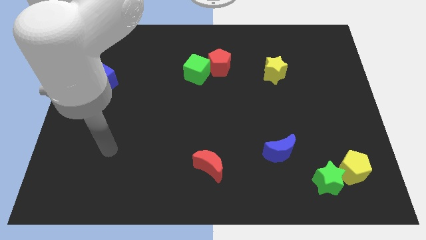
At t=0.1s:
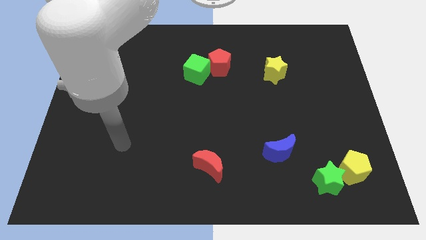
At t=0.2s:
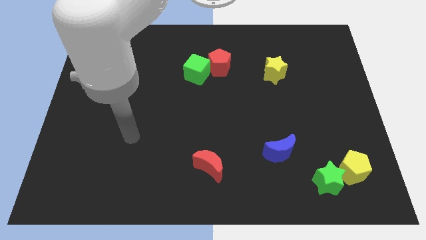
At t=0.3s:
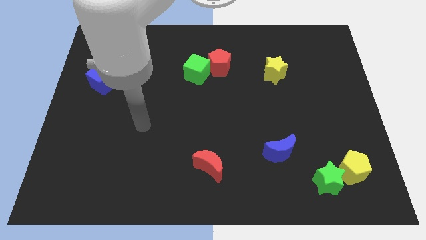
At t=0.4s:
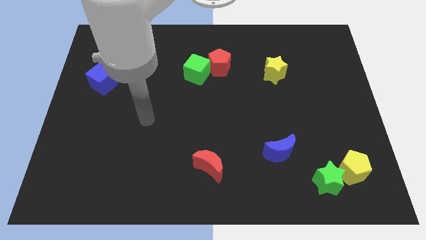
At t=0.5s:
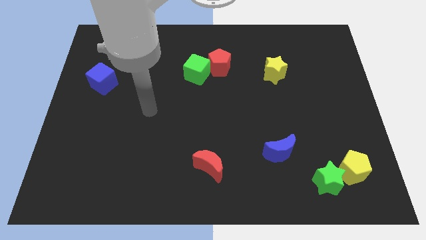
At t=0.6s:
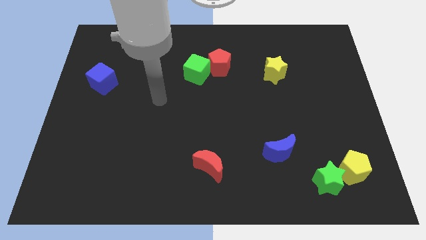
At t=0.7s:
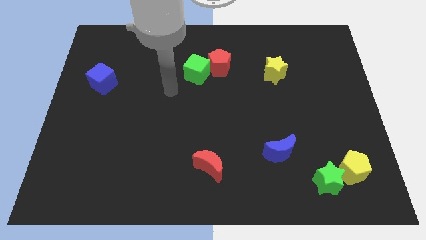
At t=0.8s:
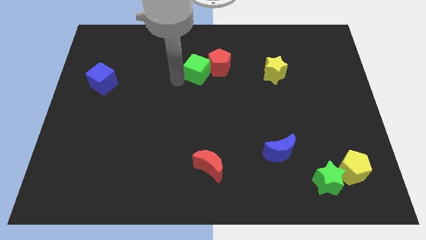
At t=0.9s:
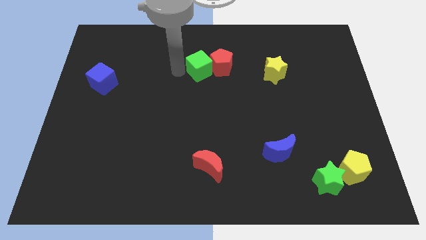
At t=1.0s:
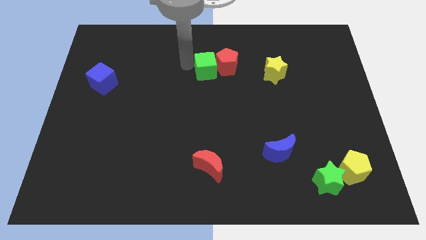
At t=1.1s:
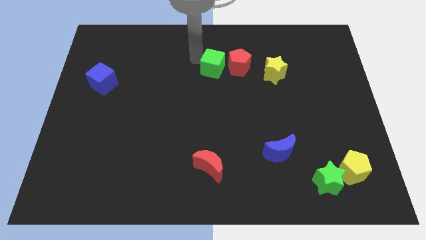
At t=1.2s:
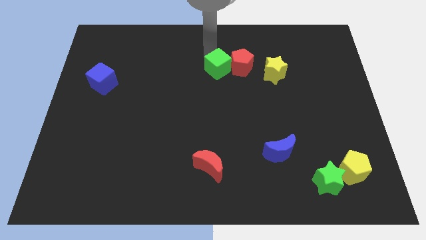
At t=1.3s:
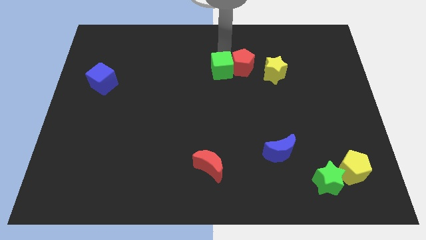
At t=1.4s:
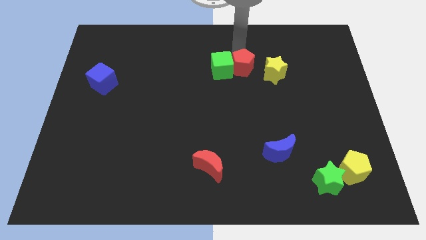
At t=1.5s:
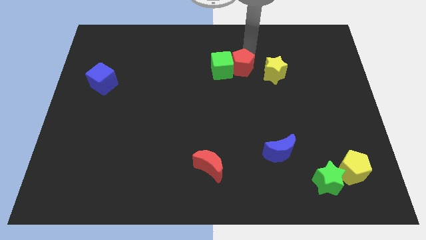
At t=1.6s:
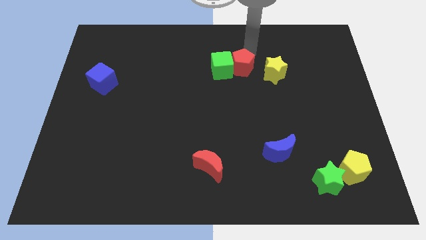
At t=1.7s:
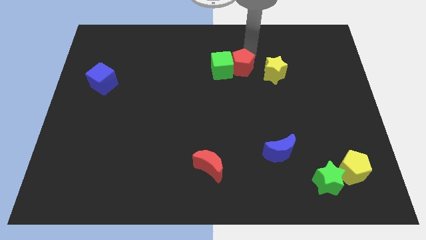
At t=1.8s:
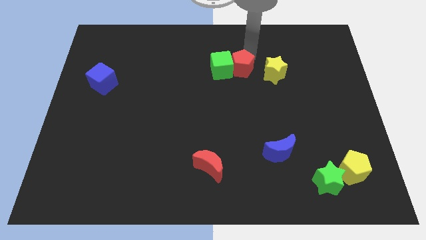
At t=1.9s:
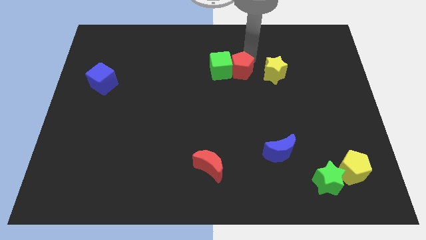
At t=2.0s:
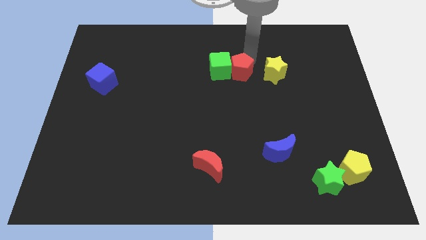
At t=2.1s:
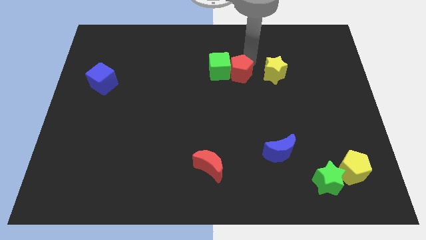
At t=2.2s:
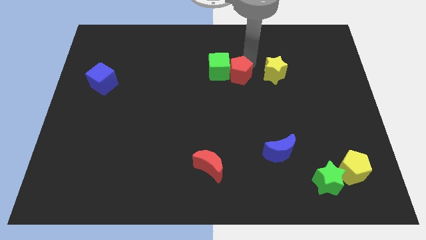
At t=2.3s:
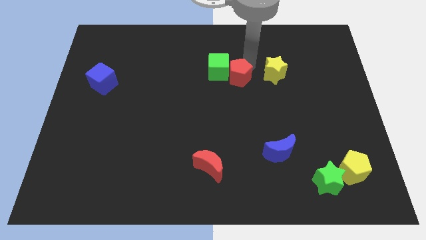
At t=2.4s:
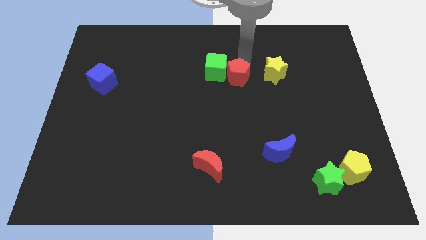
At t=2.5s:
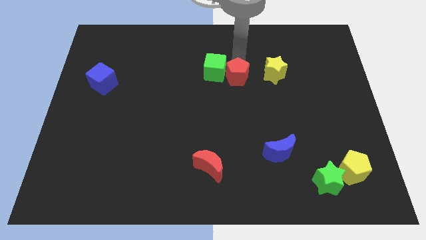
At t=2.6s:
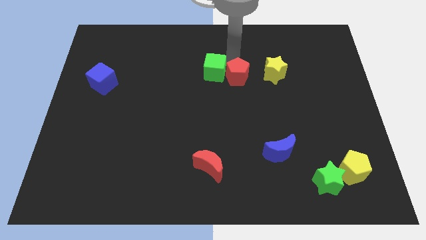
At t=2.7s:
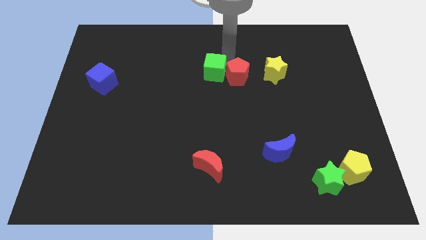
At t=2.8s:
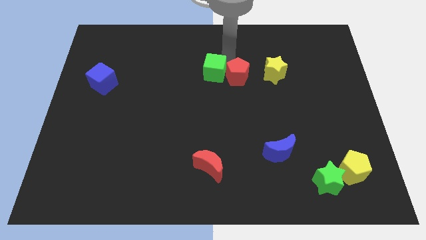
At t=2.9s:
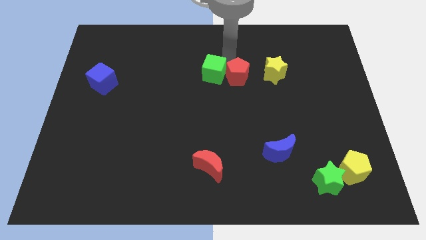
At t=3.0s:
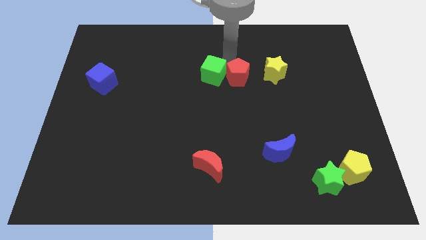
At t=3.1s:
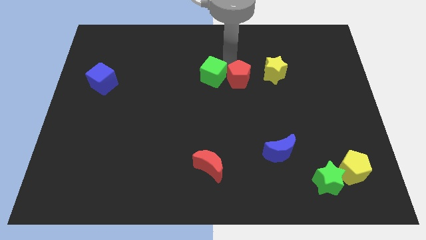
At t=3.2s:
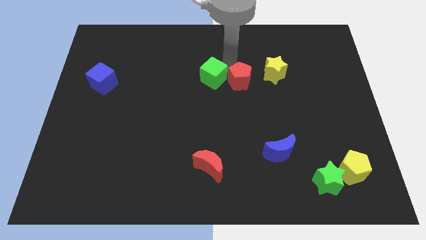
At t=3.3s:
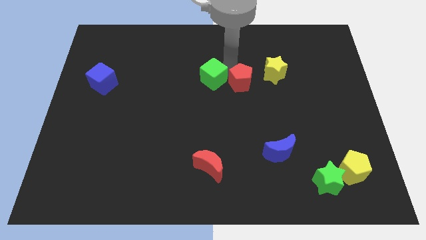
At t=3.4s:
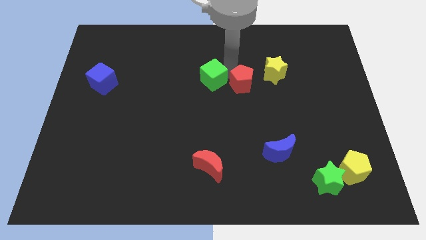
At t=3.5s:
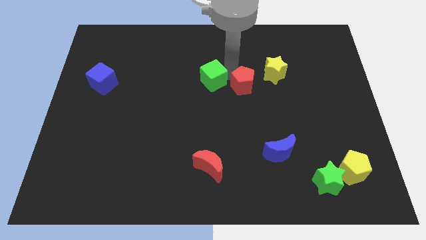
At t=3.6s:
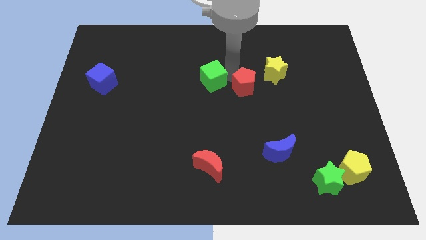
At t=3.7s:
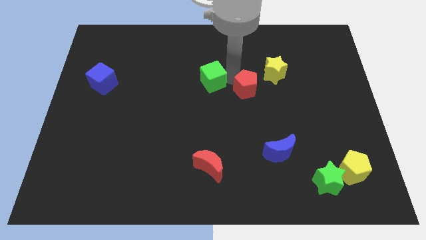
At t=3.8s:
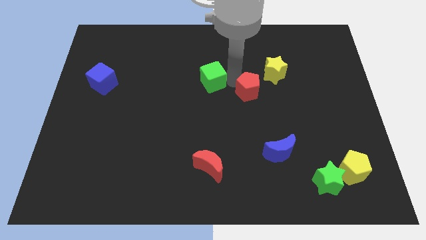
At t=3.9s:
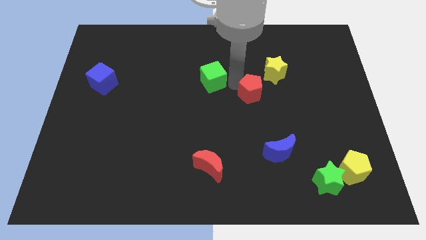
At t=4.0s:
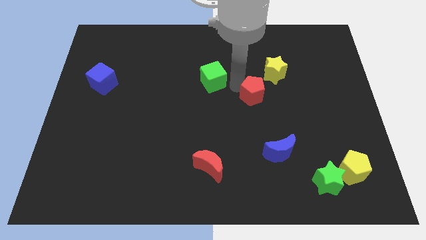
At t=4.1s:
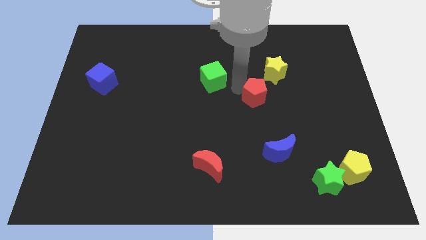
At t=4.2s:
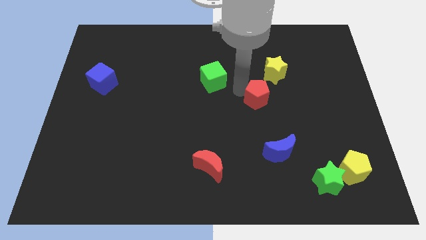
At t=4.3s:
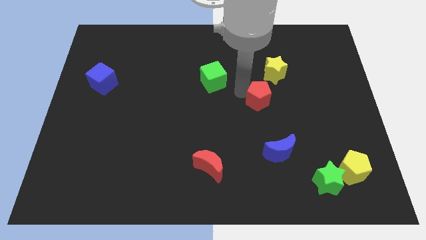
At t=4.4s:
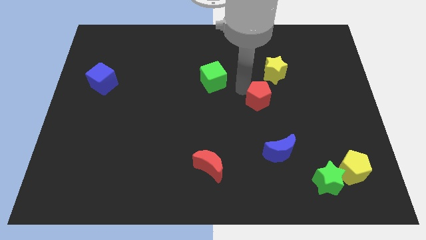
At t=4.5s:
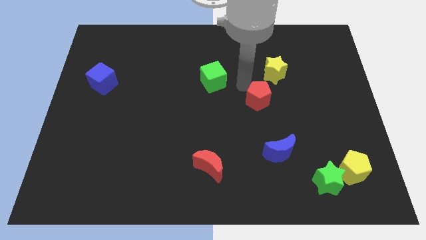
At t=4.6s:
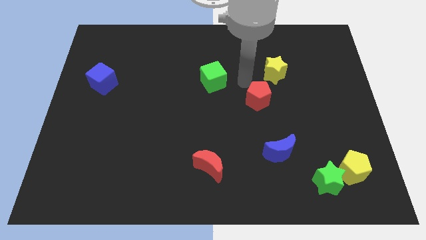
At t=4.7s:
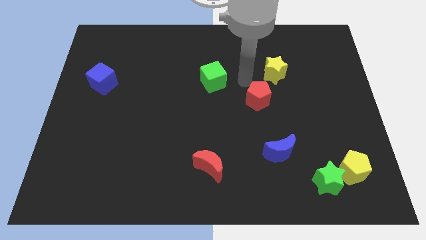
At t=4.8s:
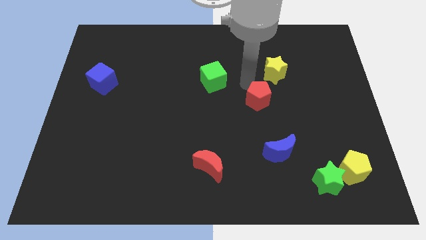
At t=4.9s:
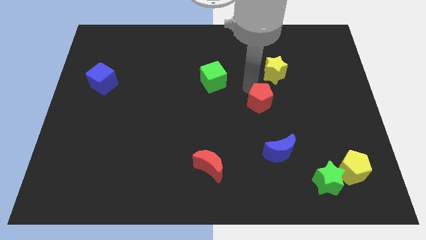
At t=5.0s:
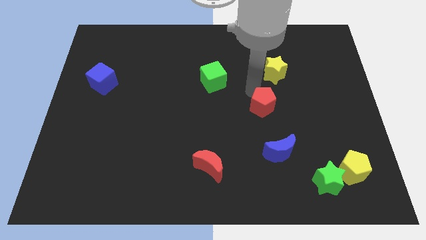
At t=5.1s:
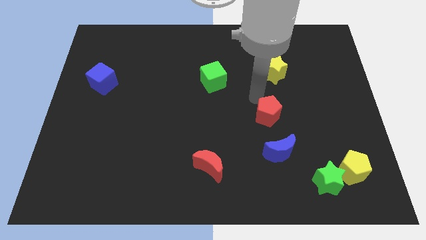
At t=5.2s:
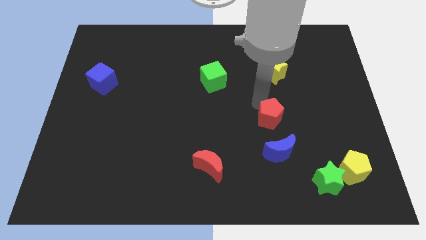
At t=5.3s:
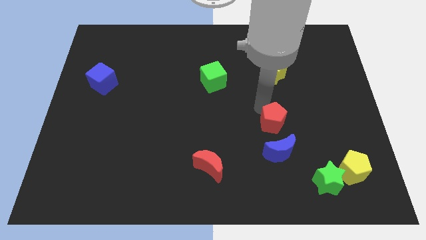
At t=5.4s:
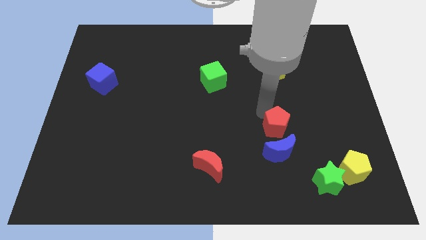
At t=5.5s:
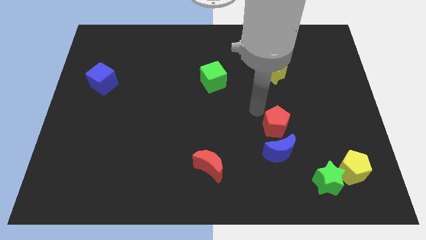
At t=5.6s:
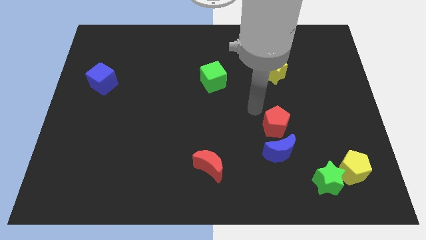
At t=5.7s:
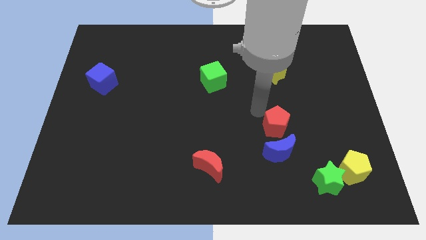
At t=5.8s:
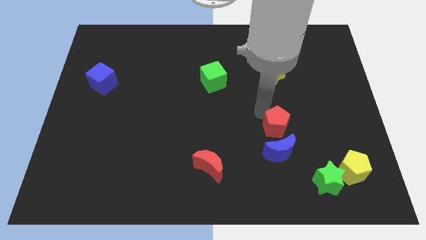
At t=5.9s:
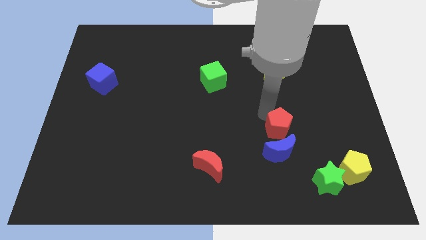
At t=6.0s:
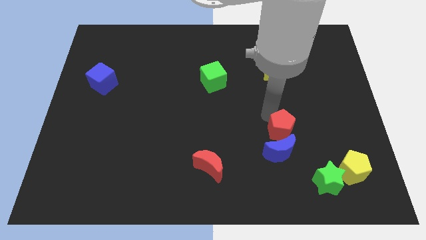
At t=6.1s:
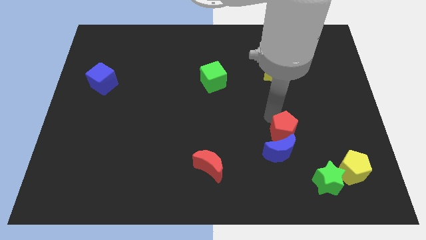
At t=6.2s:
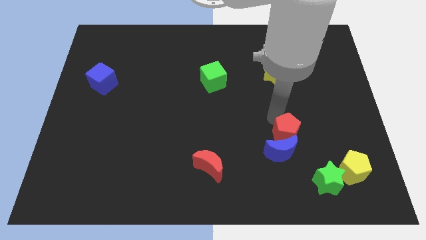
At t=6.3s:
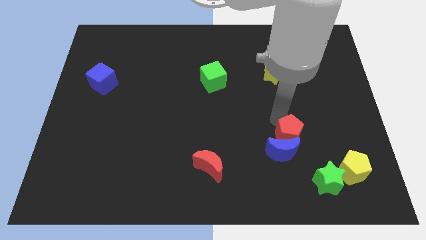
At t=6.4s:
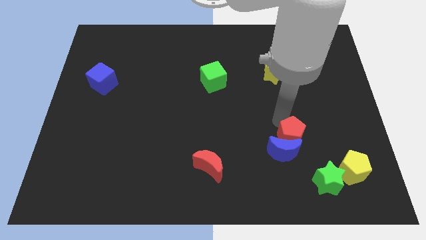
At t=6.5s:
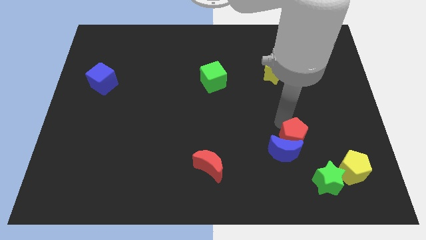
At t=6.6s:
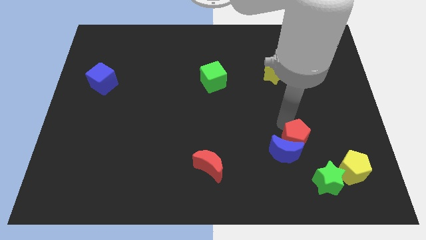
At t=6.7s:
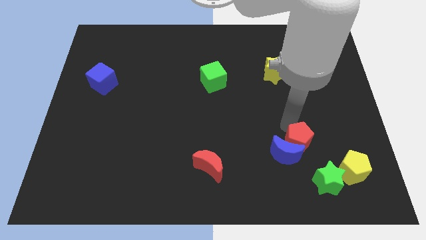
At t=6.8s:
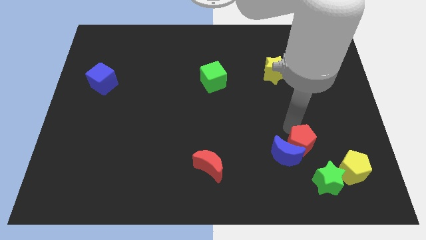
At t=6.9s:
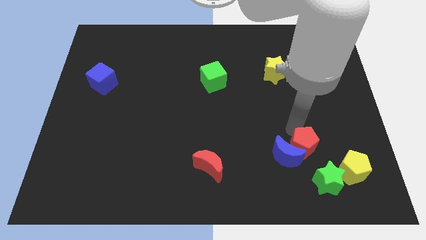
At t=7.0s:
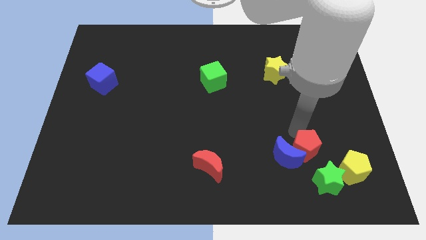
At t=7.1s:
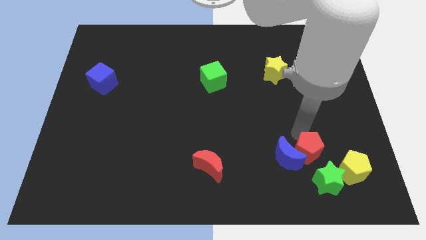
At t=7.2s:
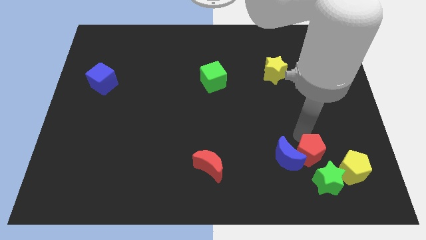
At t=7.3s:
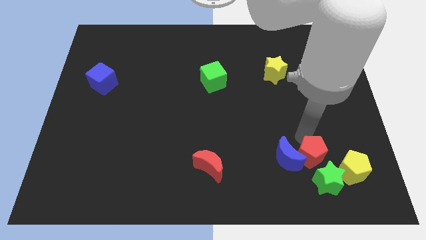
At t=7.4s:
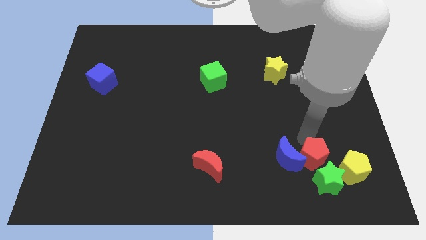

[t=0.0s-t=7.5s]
slide the red pentagon next to the green star

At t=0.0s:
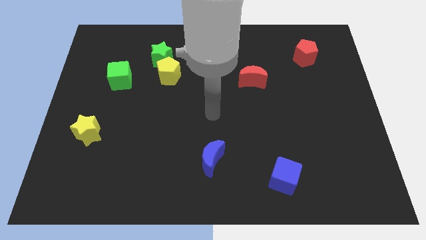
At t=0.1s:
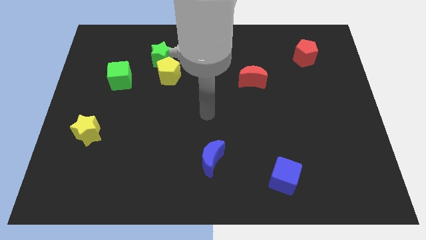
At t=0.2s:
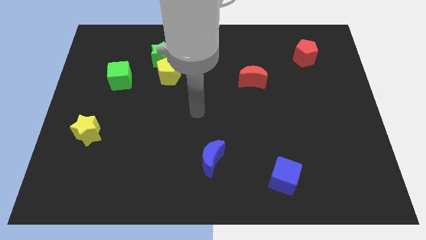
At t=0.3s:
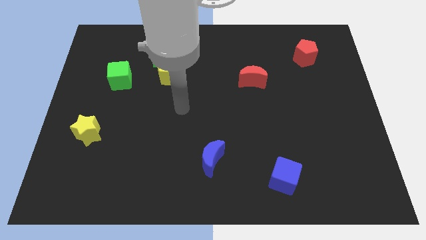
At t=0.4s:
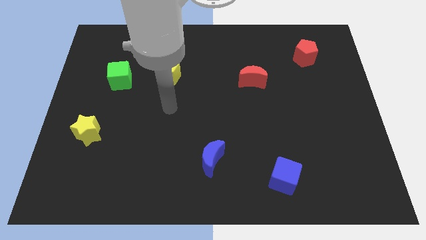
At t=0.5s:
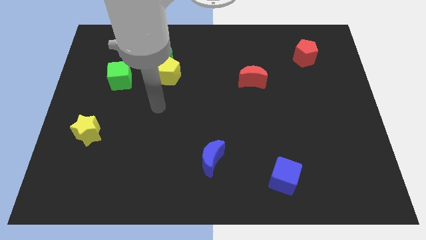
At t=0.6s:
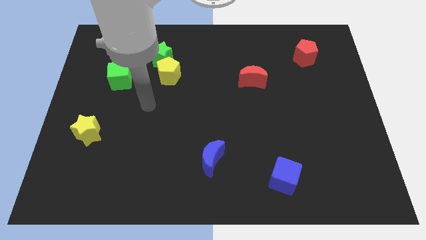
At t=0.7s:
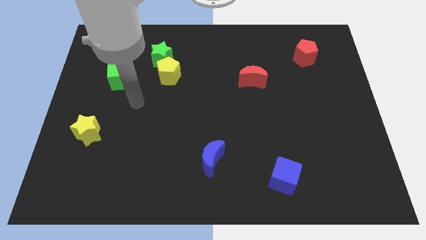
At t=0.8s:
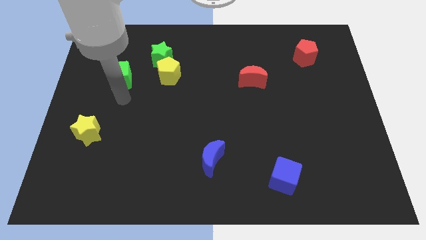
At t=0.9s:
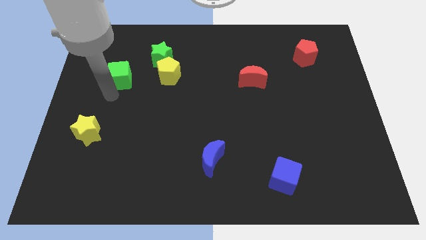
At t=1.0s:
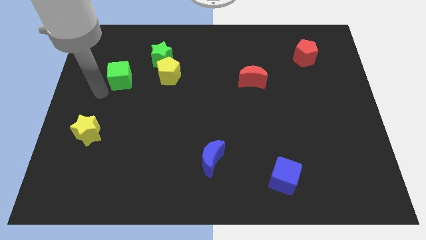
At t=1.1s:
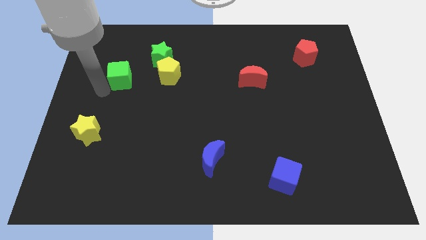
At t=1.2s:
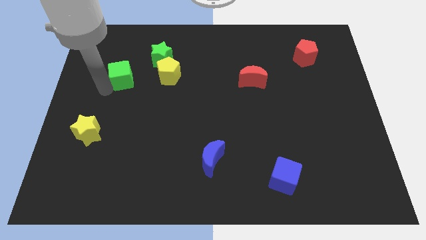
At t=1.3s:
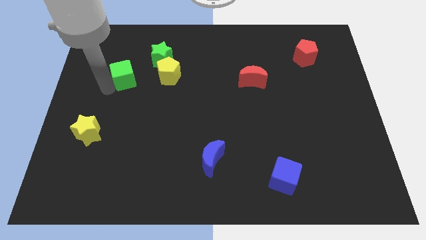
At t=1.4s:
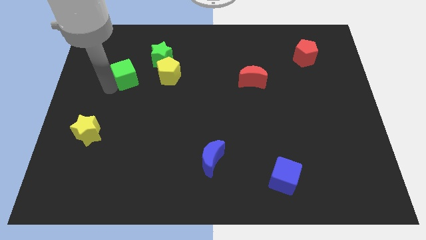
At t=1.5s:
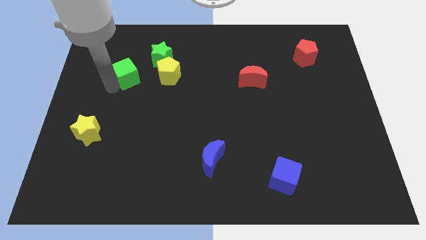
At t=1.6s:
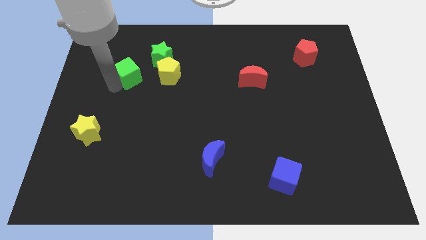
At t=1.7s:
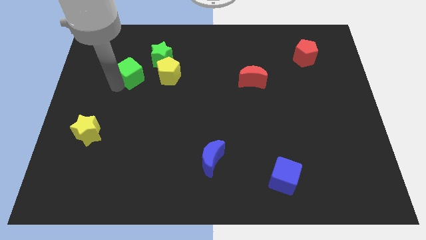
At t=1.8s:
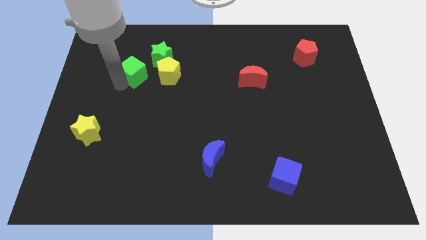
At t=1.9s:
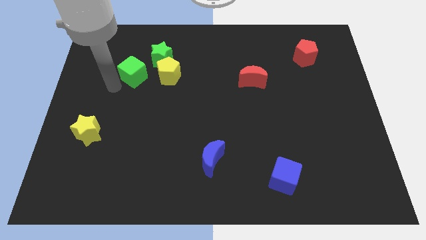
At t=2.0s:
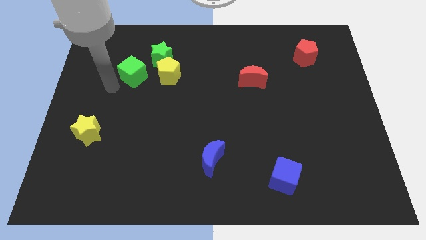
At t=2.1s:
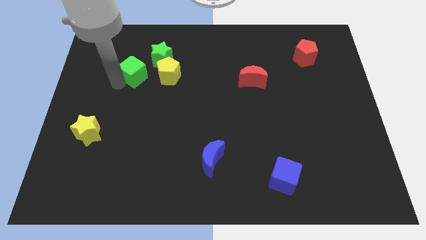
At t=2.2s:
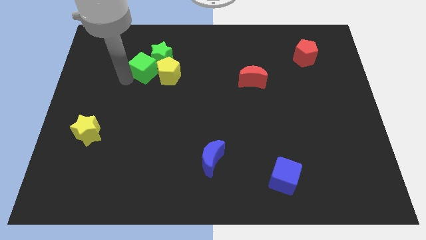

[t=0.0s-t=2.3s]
put the green cube towards the green star
